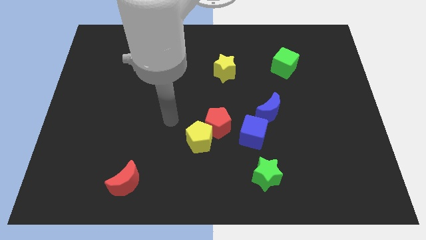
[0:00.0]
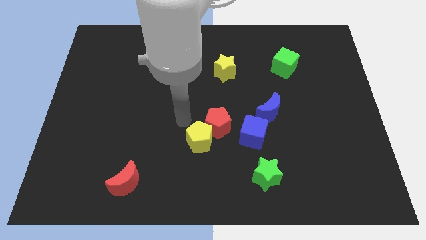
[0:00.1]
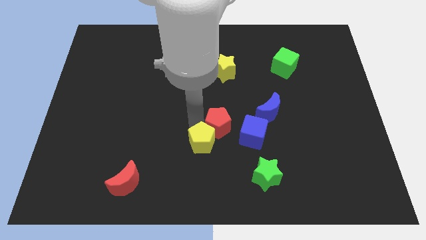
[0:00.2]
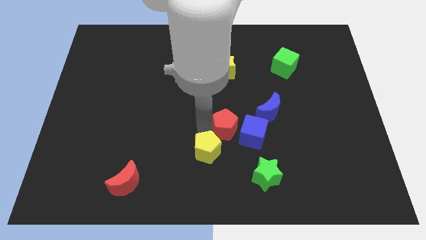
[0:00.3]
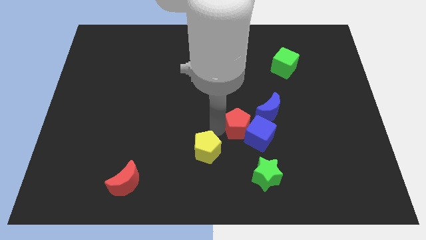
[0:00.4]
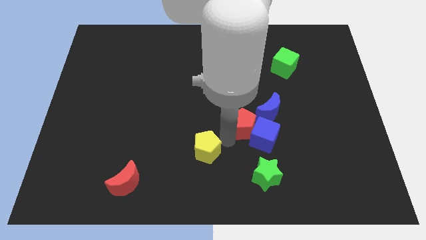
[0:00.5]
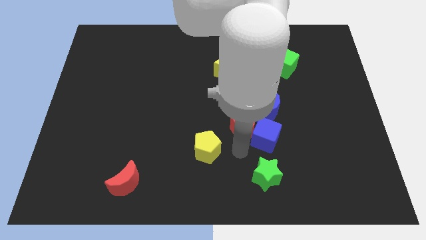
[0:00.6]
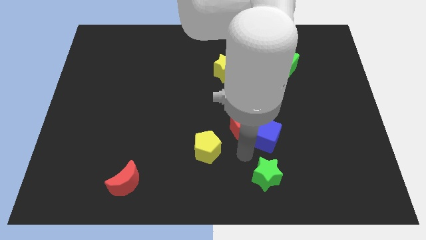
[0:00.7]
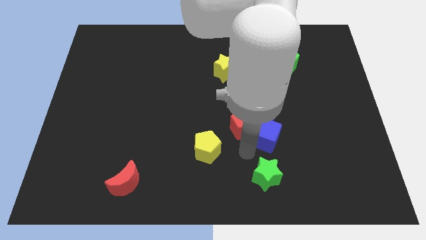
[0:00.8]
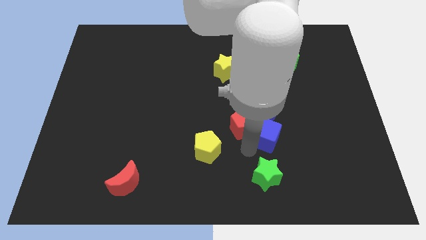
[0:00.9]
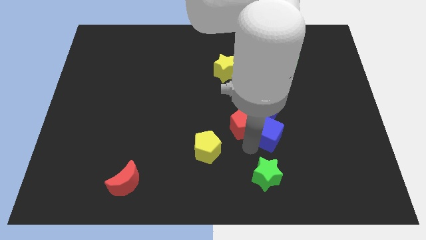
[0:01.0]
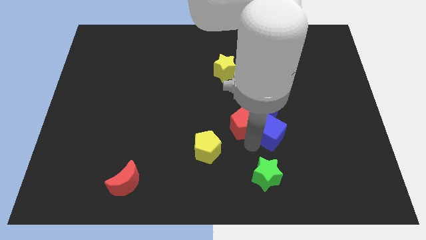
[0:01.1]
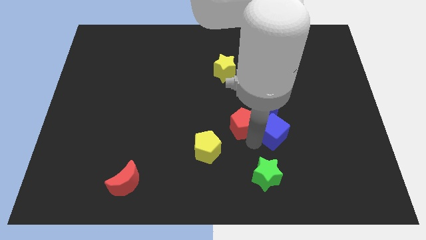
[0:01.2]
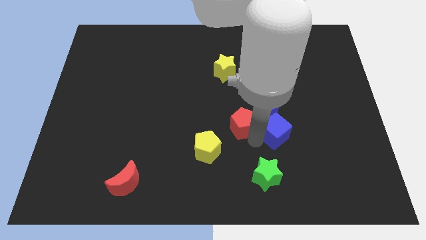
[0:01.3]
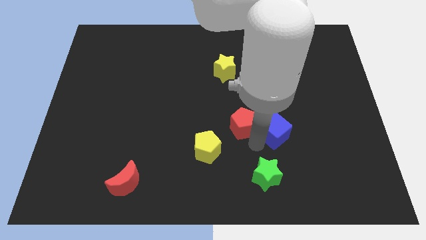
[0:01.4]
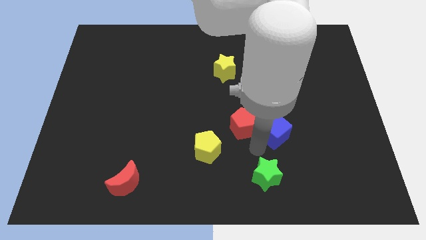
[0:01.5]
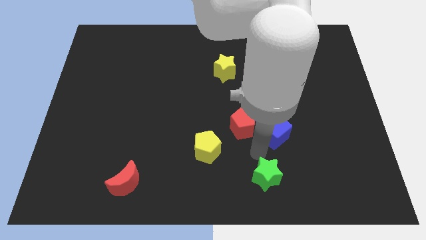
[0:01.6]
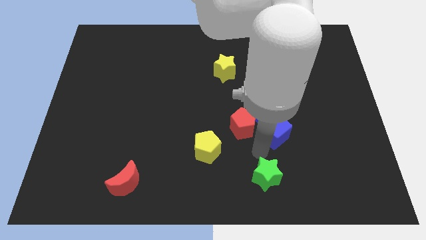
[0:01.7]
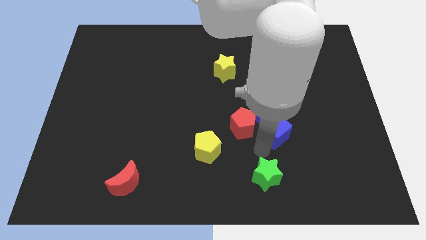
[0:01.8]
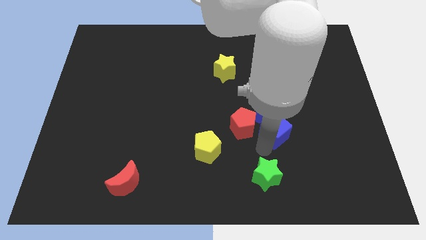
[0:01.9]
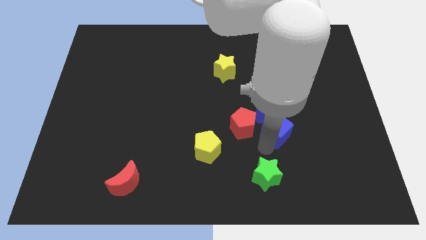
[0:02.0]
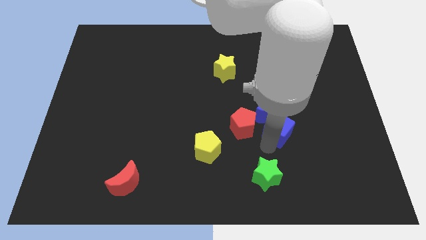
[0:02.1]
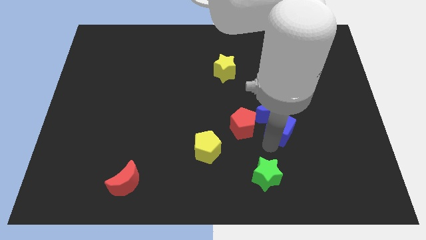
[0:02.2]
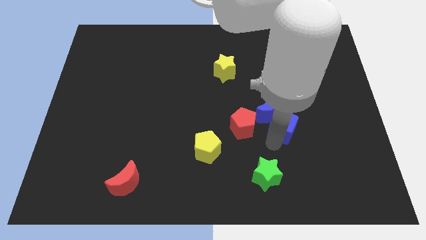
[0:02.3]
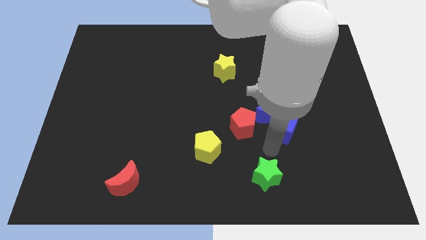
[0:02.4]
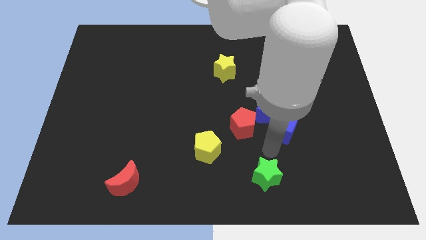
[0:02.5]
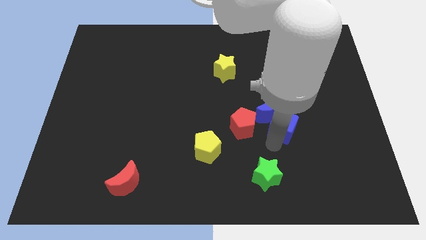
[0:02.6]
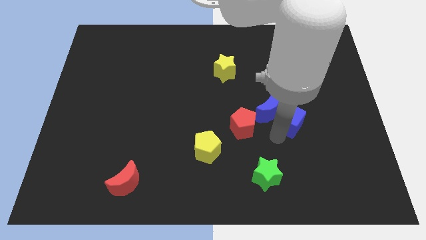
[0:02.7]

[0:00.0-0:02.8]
push the blue cube slightly upwards and right diagonally

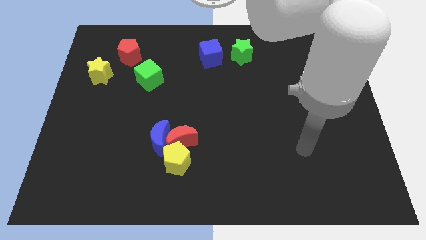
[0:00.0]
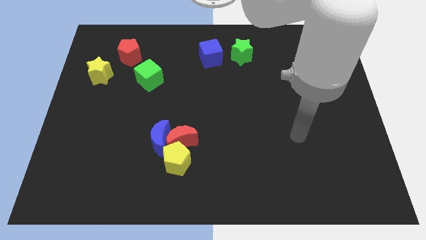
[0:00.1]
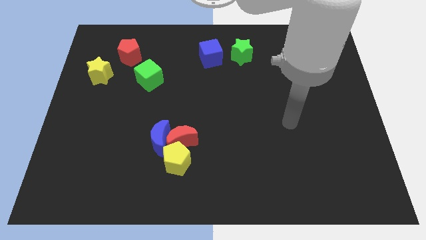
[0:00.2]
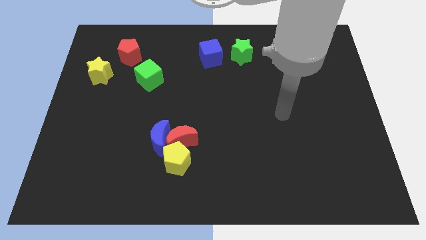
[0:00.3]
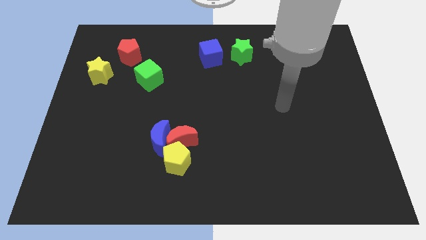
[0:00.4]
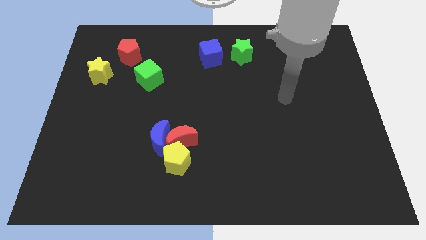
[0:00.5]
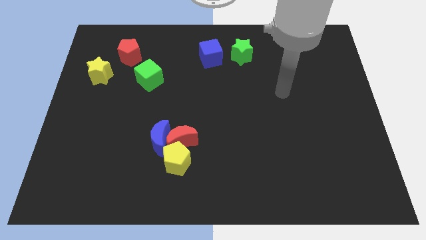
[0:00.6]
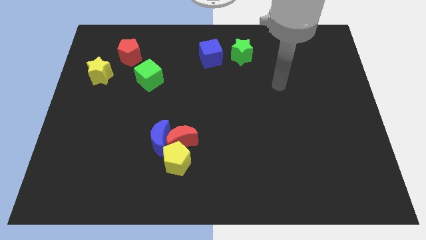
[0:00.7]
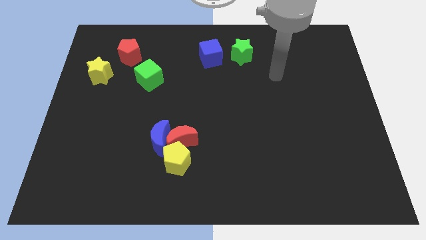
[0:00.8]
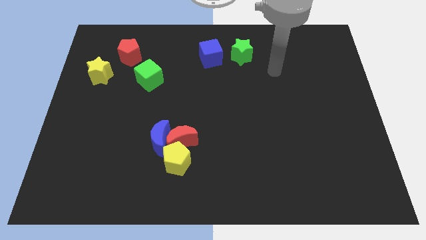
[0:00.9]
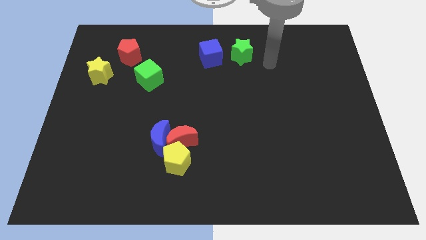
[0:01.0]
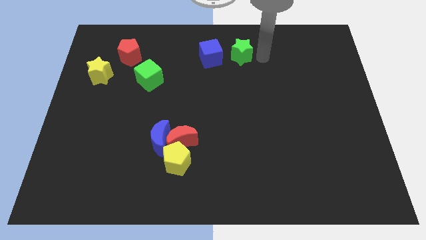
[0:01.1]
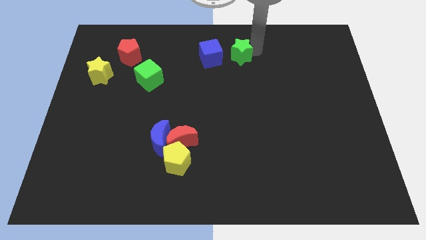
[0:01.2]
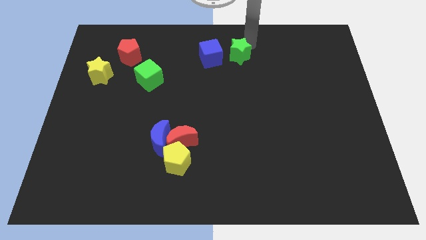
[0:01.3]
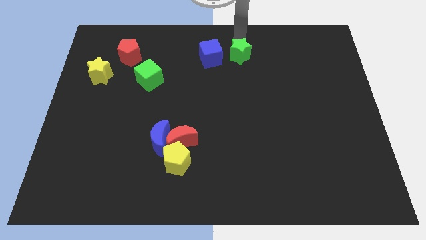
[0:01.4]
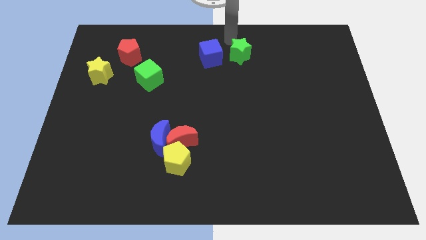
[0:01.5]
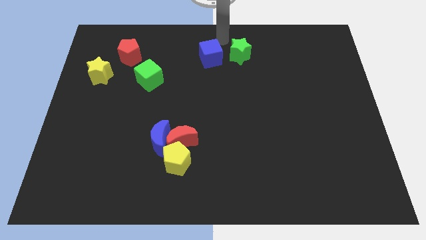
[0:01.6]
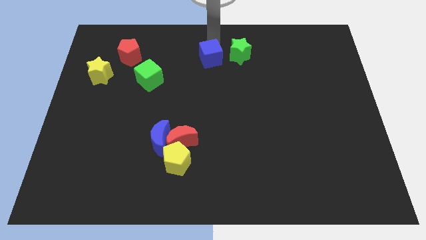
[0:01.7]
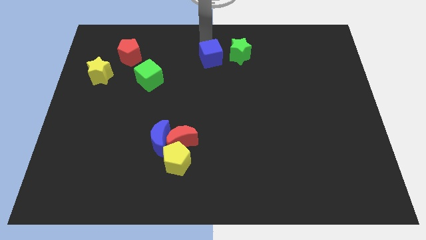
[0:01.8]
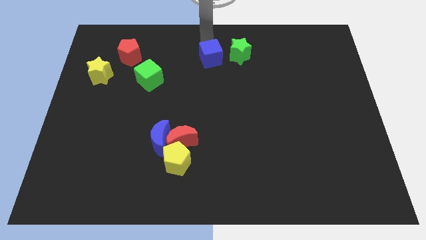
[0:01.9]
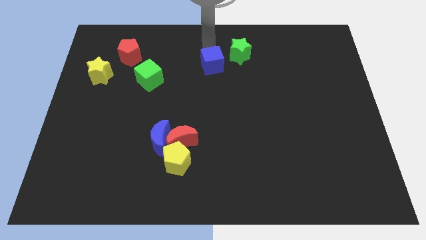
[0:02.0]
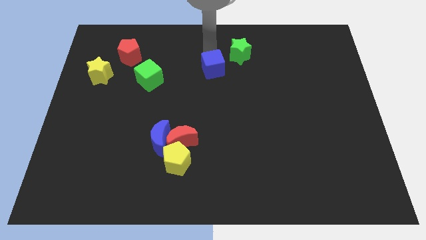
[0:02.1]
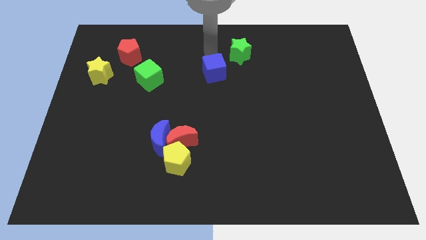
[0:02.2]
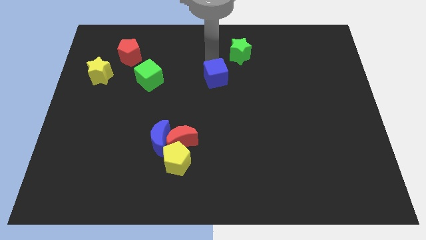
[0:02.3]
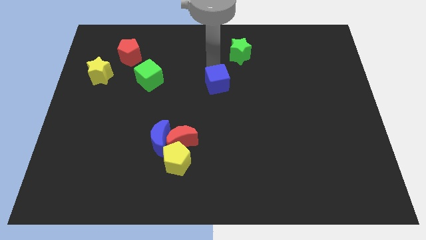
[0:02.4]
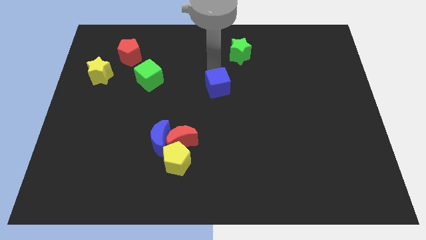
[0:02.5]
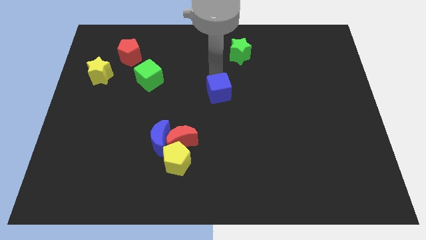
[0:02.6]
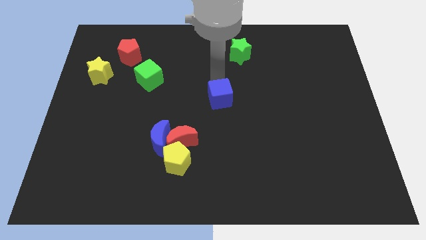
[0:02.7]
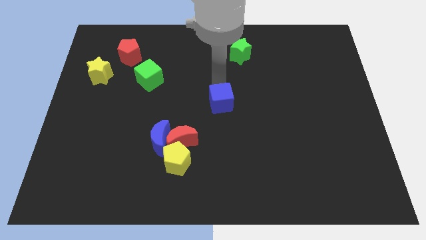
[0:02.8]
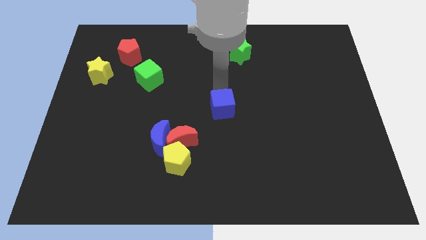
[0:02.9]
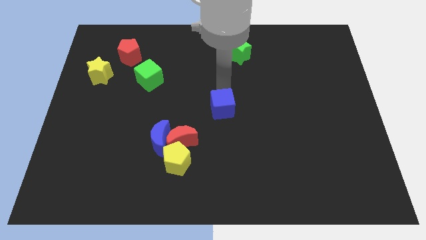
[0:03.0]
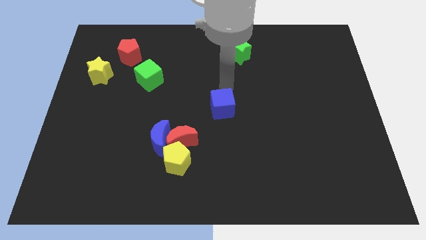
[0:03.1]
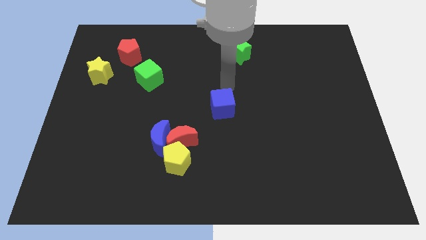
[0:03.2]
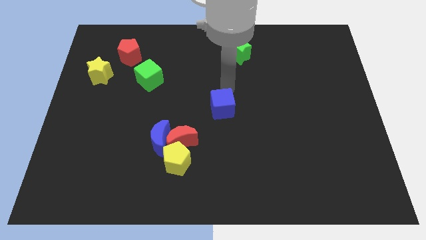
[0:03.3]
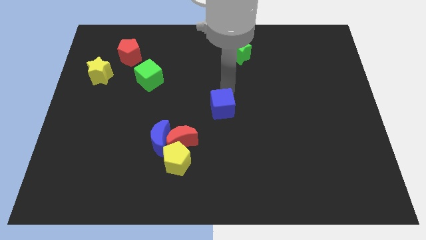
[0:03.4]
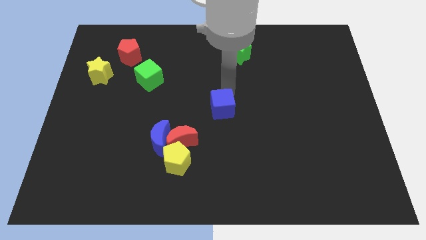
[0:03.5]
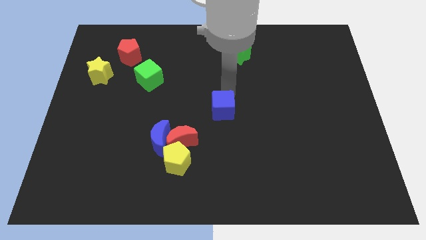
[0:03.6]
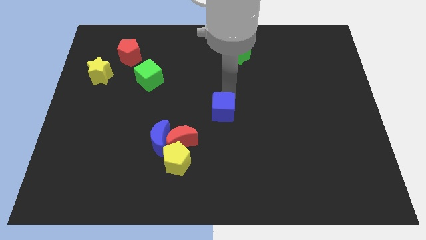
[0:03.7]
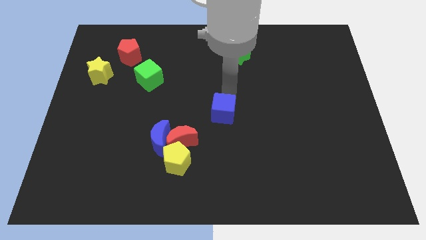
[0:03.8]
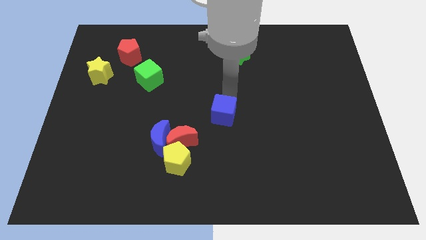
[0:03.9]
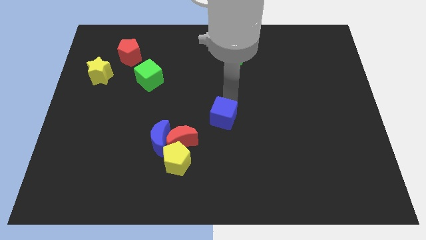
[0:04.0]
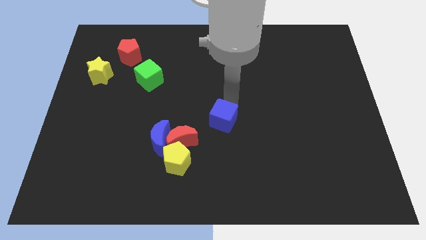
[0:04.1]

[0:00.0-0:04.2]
slide the blue cube down

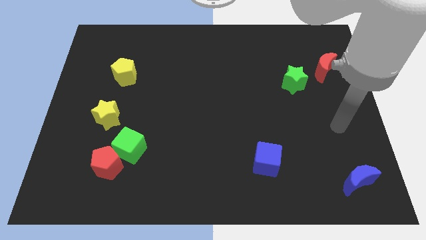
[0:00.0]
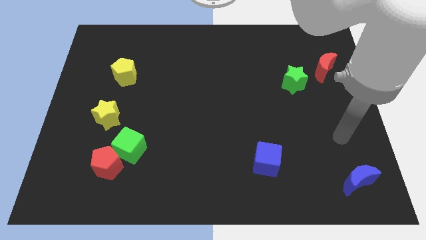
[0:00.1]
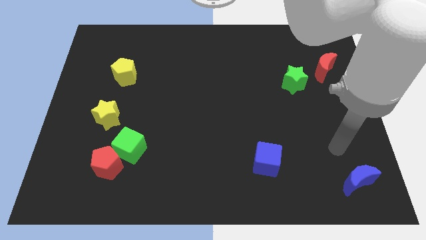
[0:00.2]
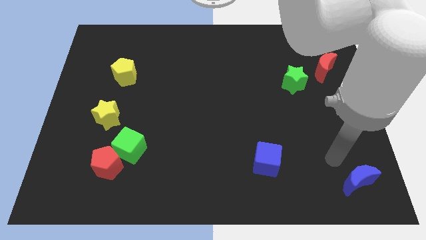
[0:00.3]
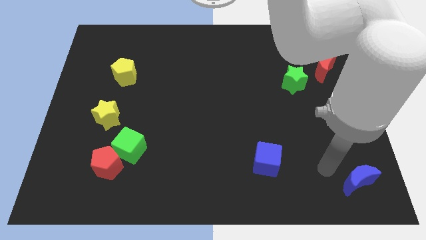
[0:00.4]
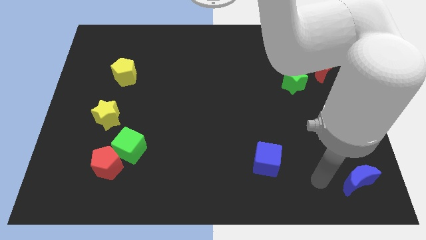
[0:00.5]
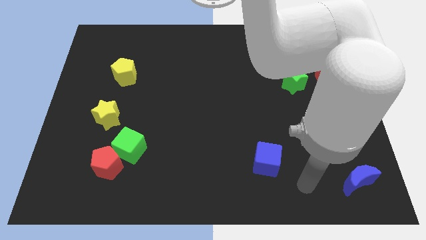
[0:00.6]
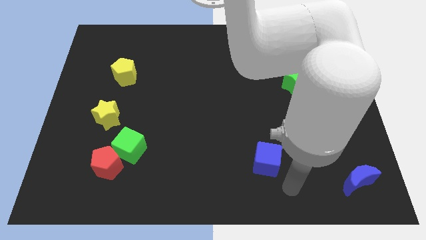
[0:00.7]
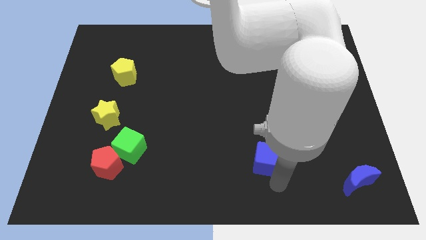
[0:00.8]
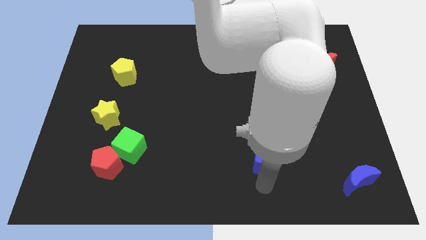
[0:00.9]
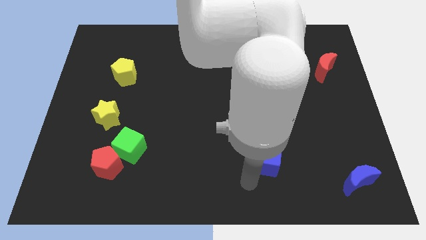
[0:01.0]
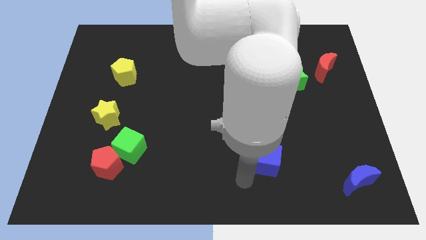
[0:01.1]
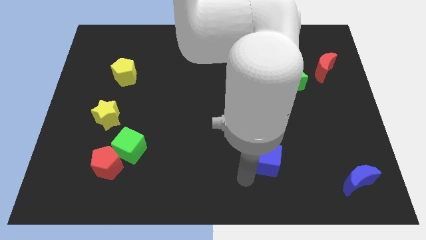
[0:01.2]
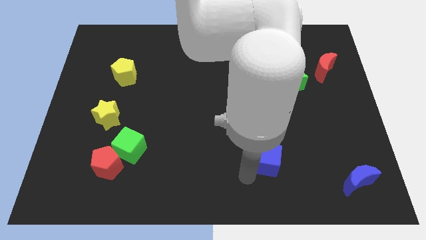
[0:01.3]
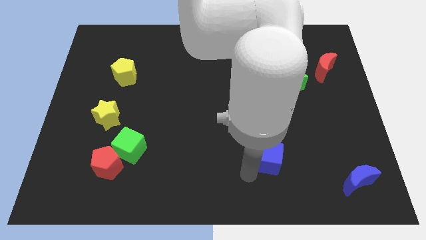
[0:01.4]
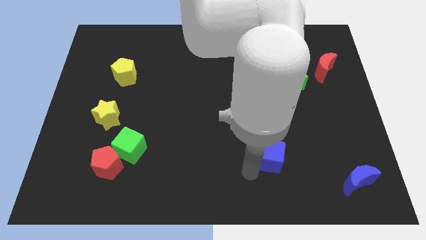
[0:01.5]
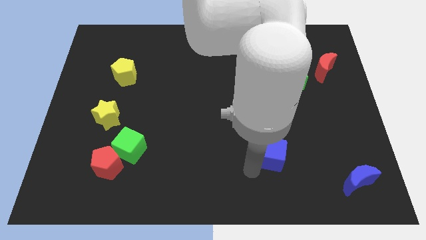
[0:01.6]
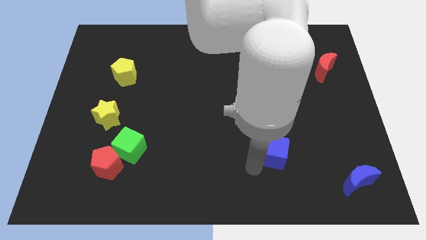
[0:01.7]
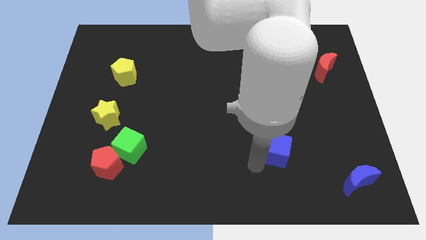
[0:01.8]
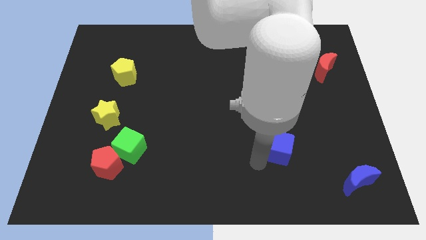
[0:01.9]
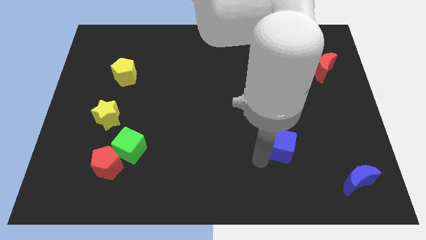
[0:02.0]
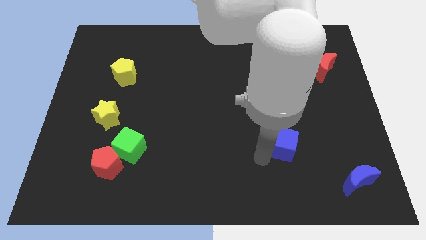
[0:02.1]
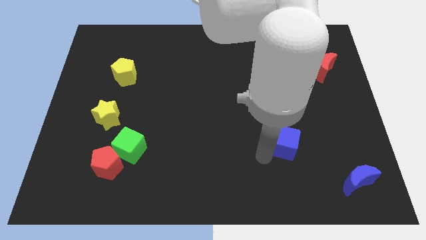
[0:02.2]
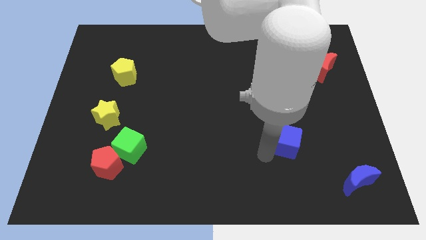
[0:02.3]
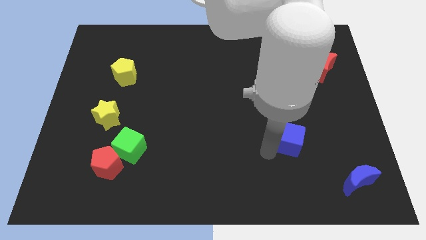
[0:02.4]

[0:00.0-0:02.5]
slightly move the blue cube up and right
